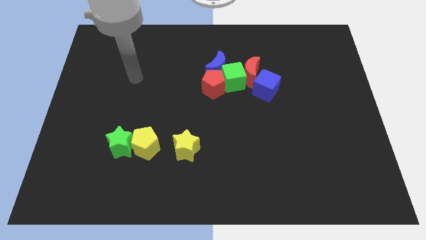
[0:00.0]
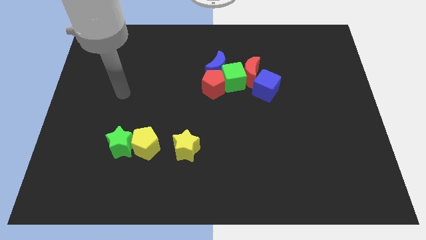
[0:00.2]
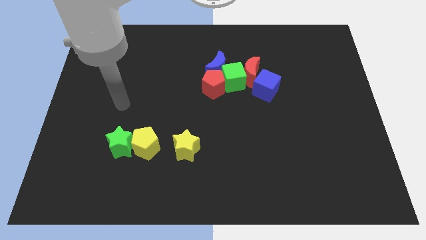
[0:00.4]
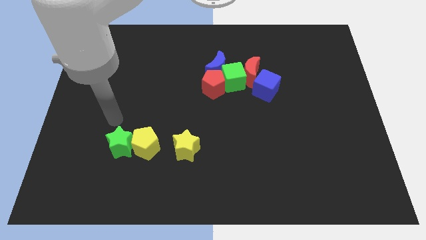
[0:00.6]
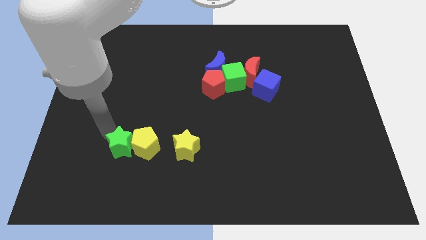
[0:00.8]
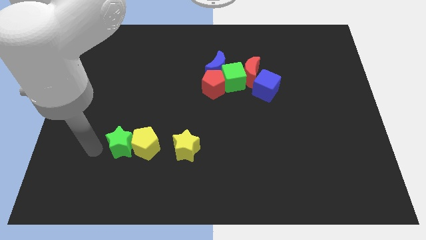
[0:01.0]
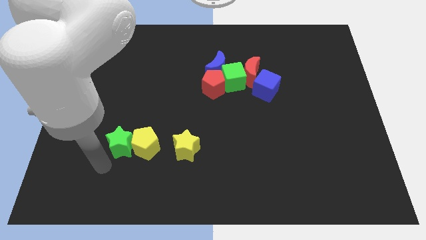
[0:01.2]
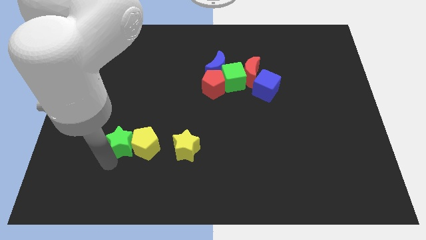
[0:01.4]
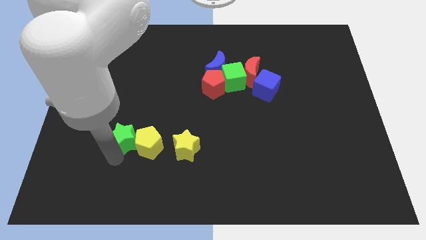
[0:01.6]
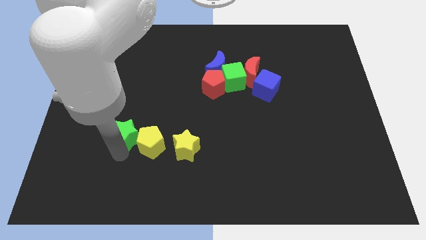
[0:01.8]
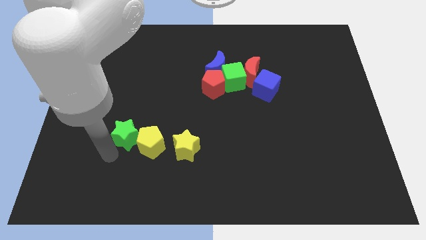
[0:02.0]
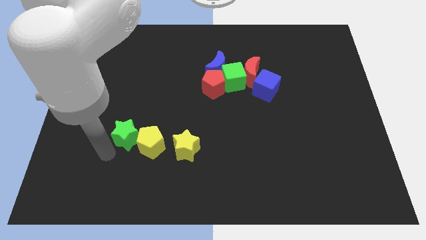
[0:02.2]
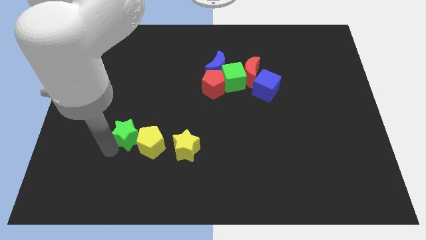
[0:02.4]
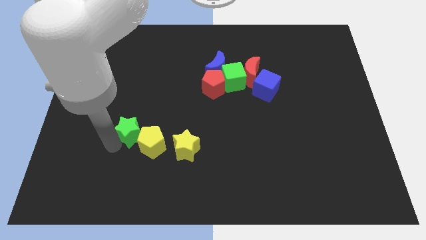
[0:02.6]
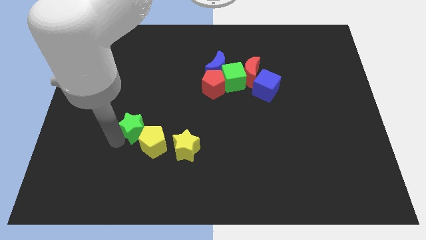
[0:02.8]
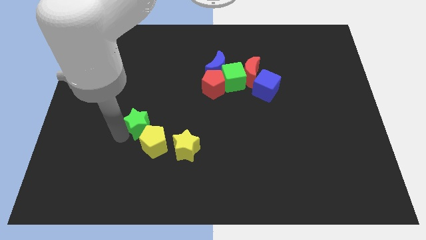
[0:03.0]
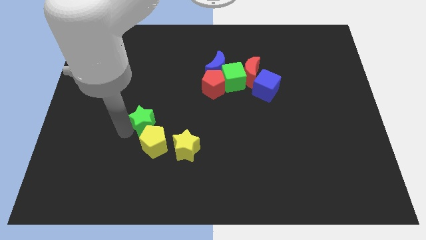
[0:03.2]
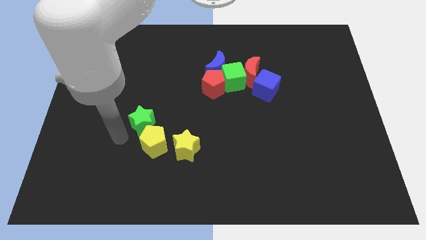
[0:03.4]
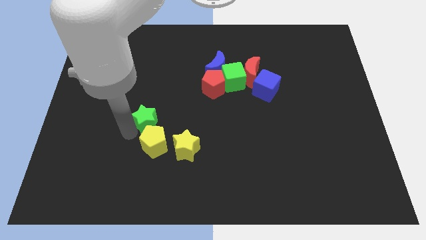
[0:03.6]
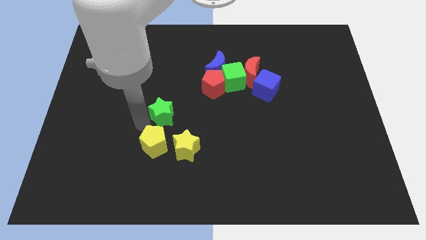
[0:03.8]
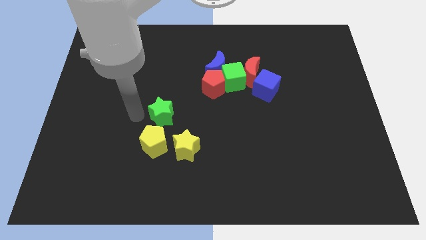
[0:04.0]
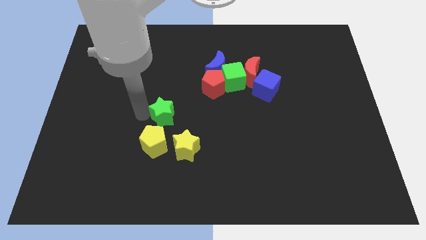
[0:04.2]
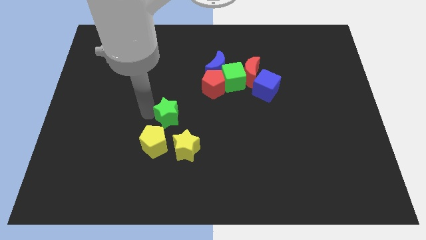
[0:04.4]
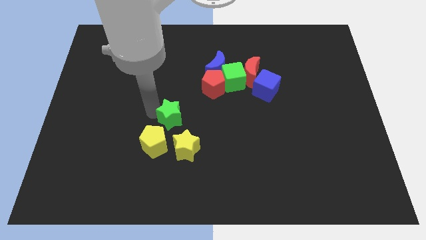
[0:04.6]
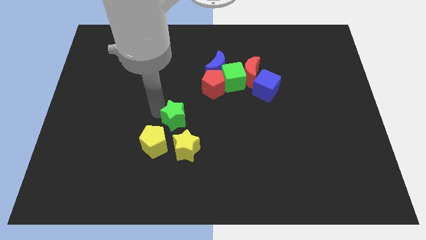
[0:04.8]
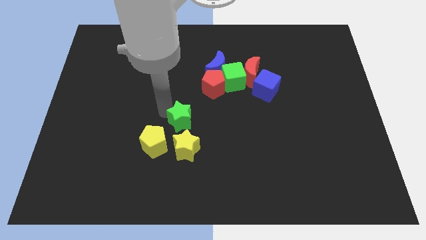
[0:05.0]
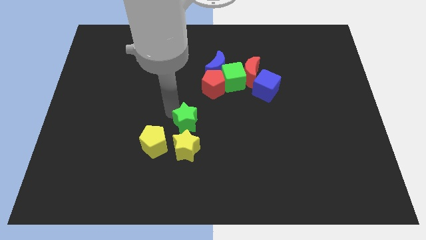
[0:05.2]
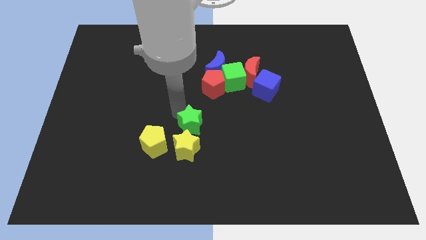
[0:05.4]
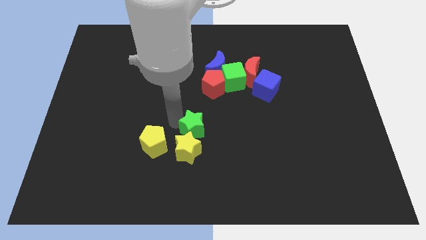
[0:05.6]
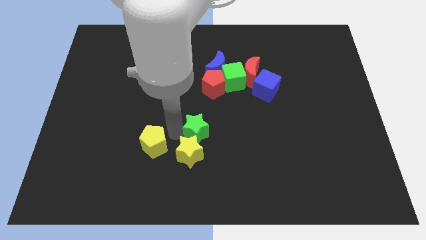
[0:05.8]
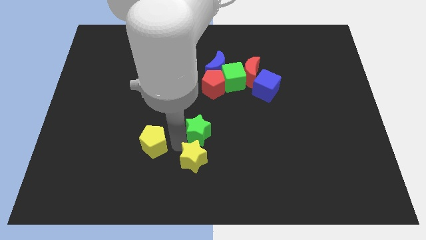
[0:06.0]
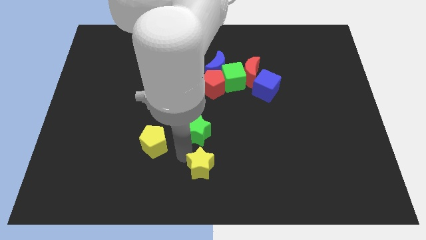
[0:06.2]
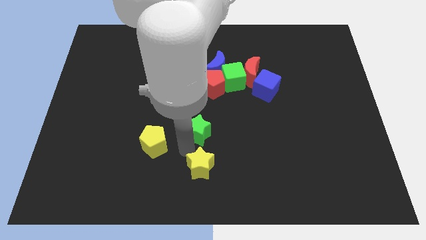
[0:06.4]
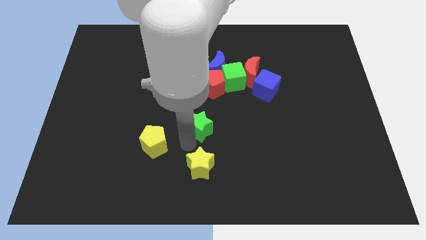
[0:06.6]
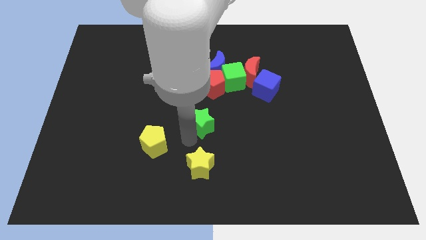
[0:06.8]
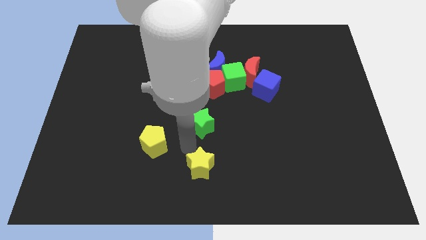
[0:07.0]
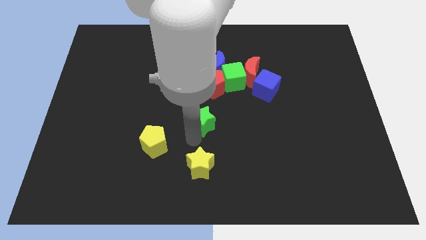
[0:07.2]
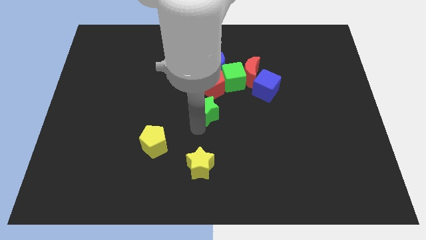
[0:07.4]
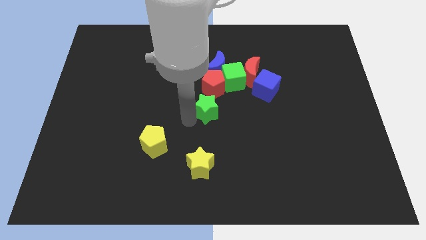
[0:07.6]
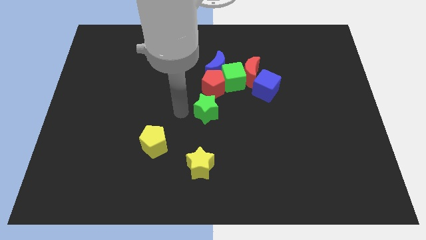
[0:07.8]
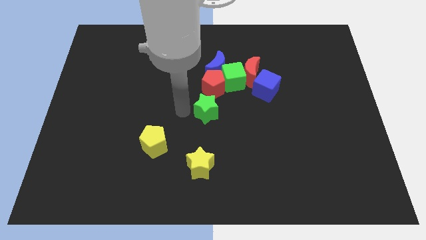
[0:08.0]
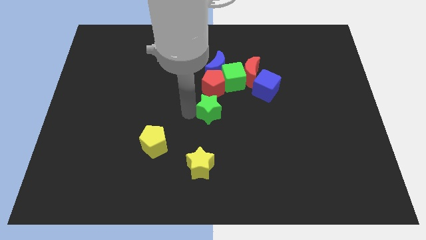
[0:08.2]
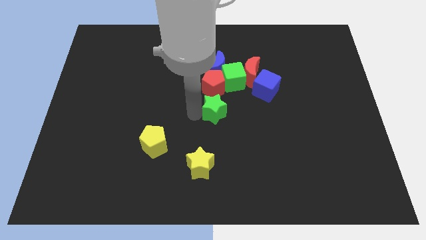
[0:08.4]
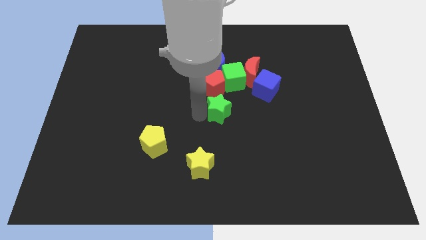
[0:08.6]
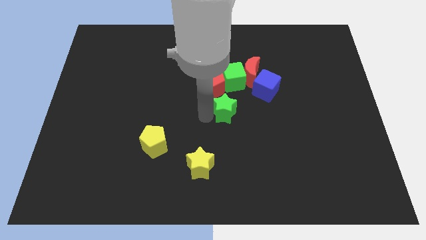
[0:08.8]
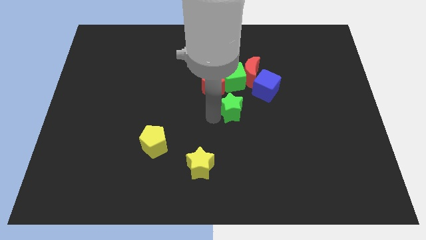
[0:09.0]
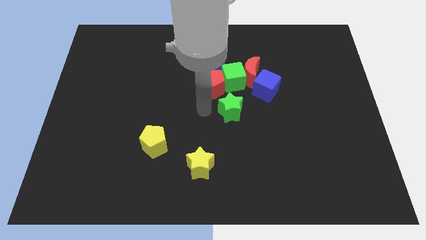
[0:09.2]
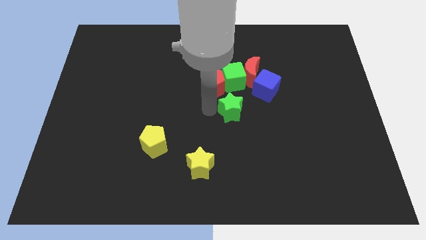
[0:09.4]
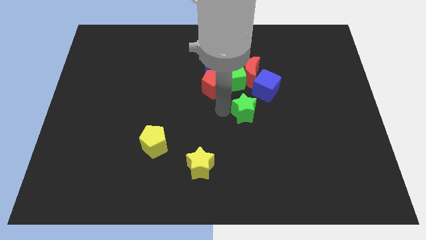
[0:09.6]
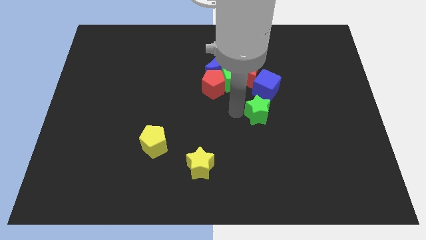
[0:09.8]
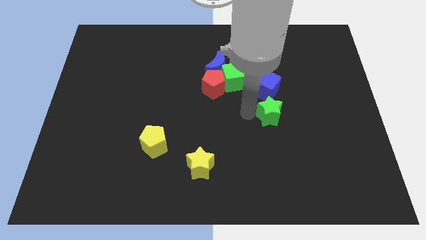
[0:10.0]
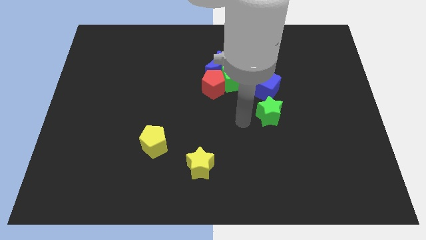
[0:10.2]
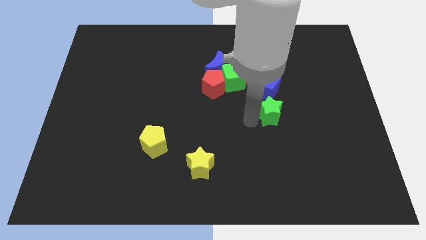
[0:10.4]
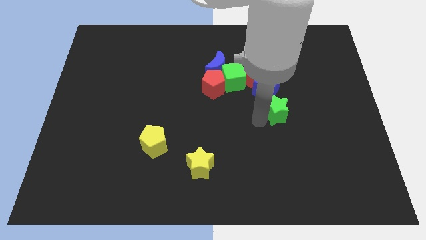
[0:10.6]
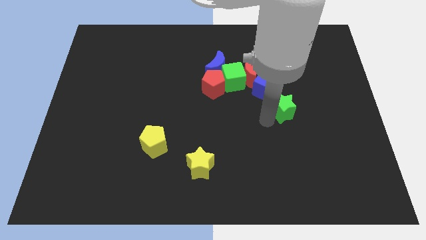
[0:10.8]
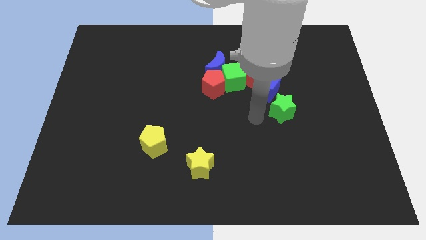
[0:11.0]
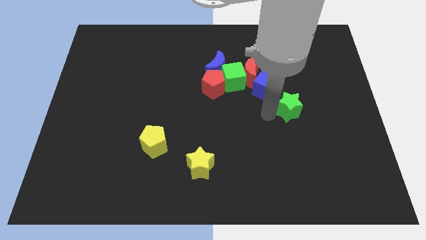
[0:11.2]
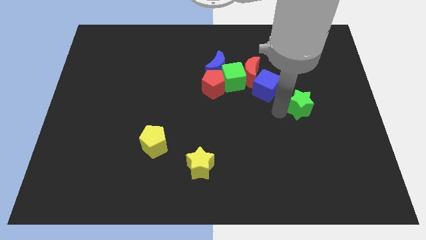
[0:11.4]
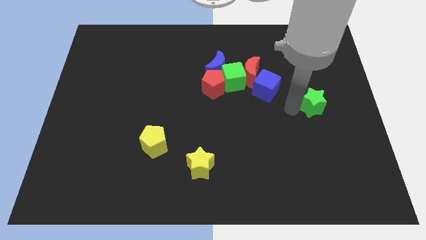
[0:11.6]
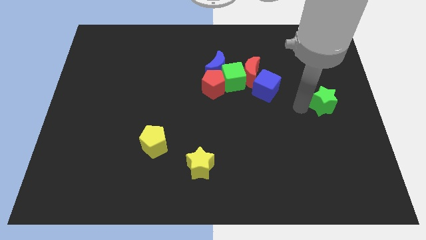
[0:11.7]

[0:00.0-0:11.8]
move the green star to the right side of the board

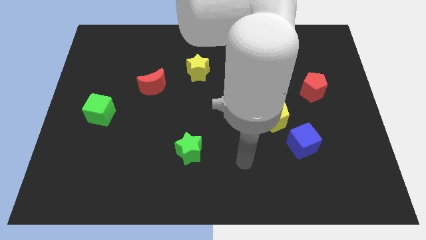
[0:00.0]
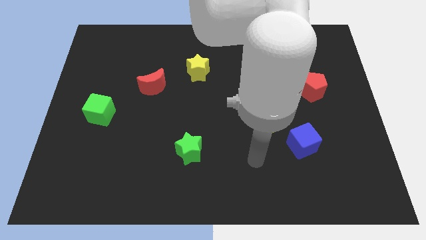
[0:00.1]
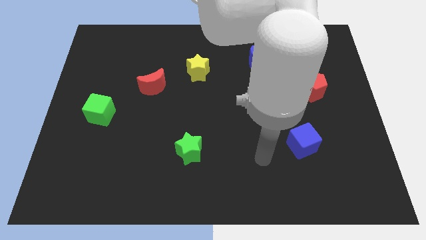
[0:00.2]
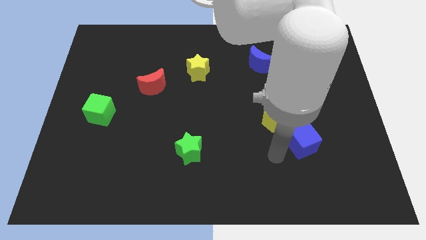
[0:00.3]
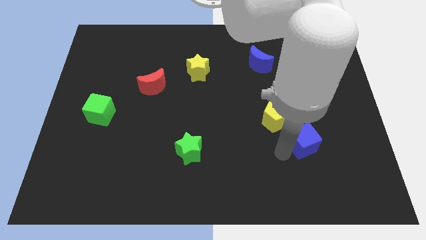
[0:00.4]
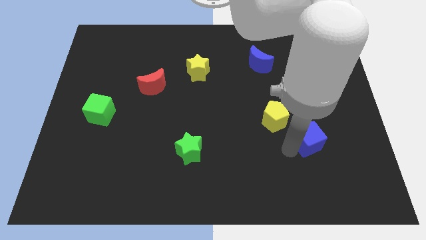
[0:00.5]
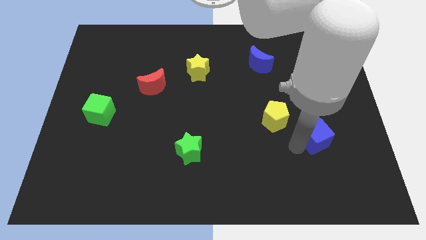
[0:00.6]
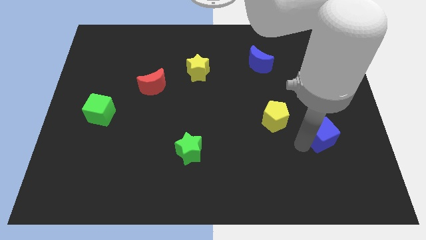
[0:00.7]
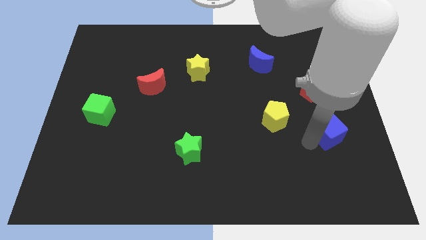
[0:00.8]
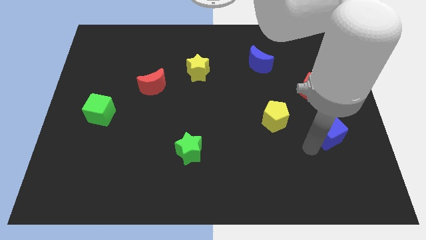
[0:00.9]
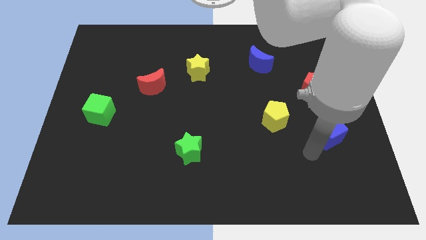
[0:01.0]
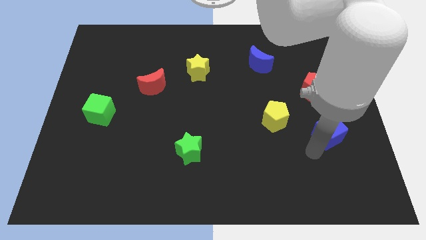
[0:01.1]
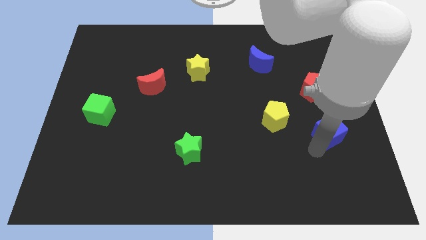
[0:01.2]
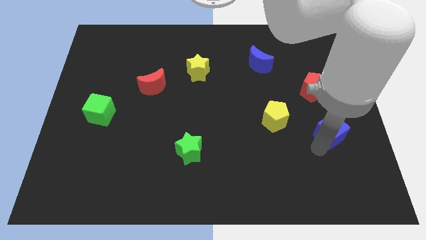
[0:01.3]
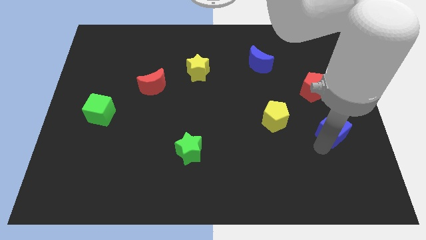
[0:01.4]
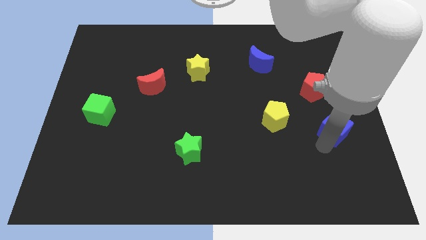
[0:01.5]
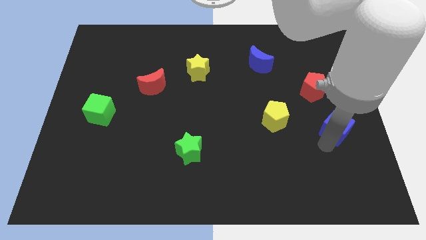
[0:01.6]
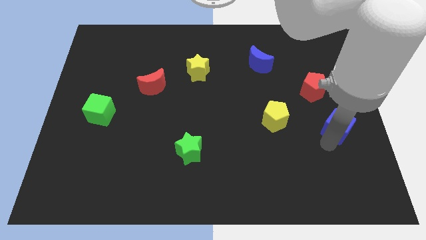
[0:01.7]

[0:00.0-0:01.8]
put the blue cube to the center right
